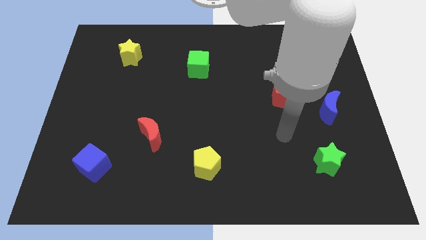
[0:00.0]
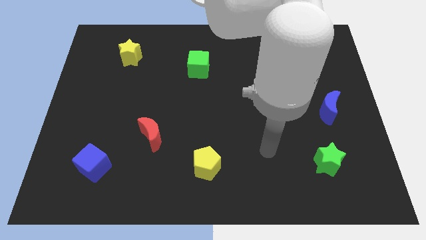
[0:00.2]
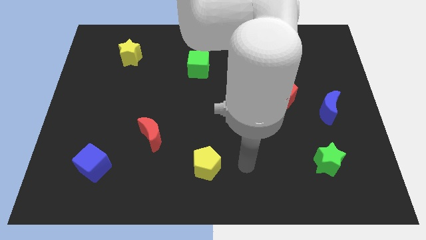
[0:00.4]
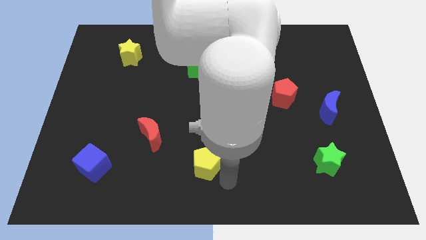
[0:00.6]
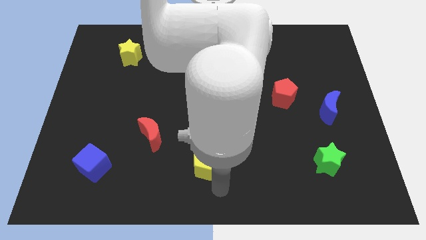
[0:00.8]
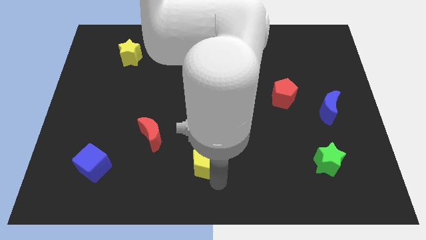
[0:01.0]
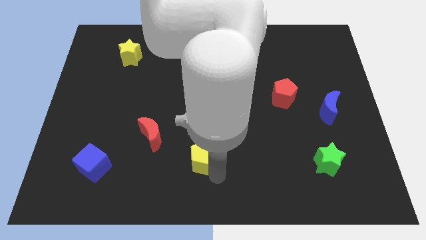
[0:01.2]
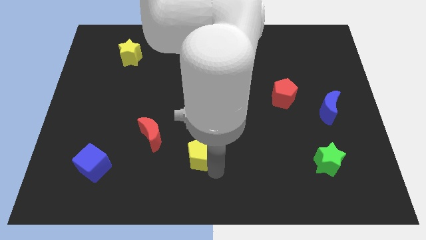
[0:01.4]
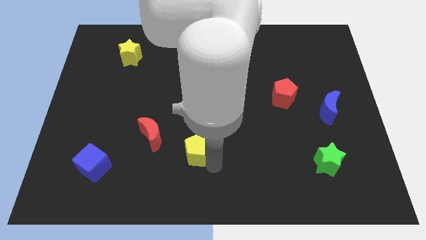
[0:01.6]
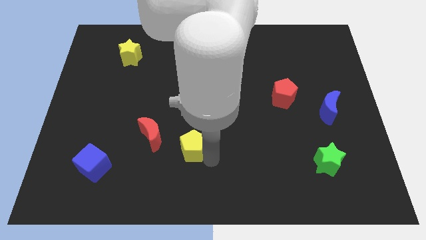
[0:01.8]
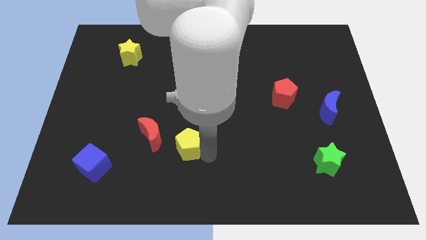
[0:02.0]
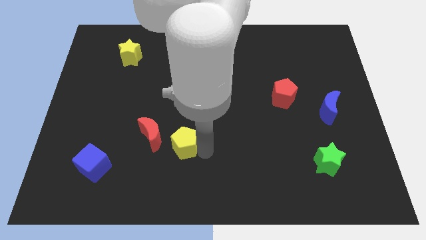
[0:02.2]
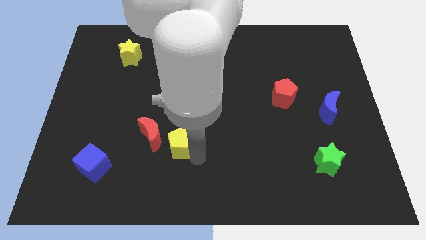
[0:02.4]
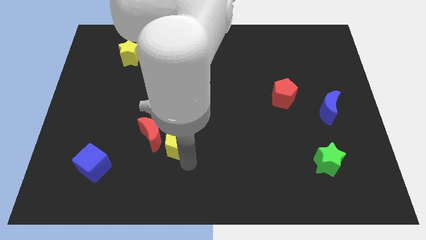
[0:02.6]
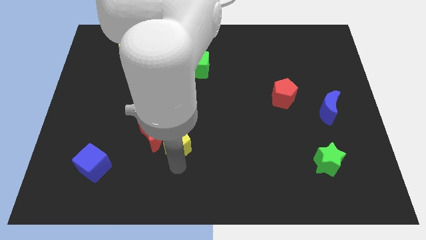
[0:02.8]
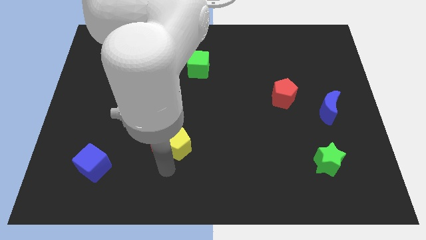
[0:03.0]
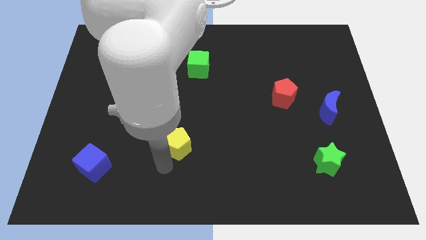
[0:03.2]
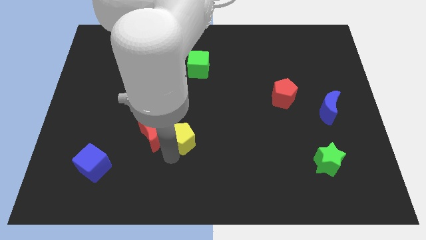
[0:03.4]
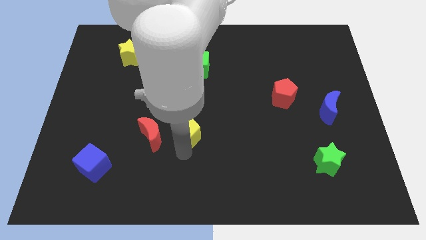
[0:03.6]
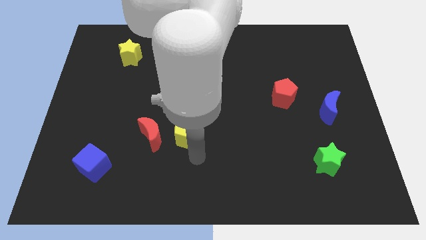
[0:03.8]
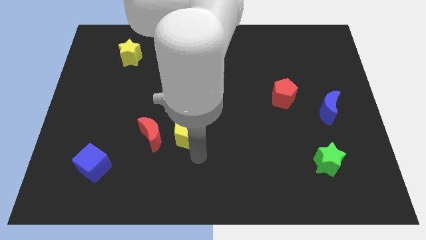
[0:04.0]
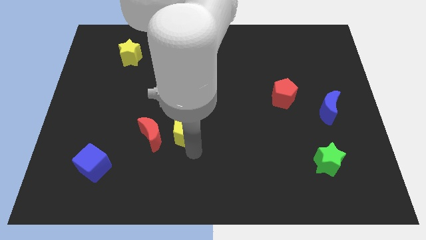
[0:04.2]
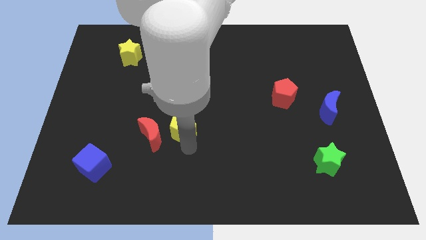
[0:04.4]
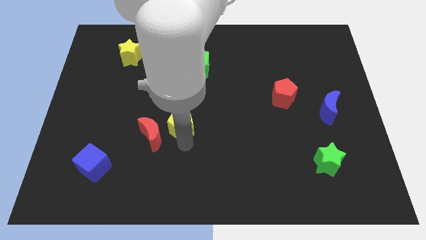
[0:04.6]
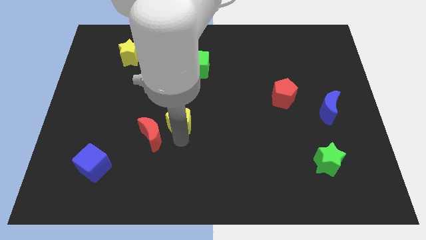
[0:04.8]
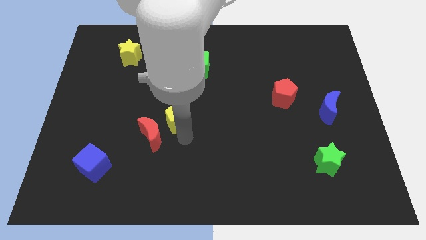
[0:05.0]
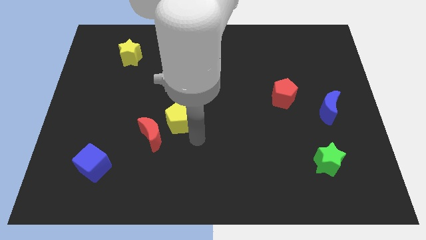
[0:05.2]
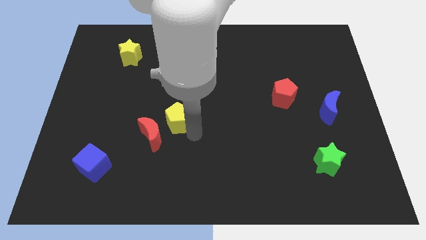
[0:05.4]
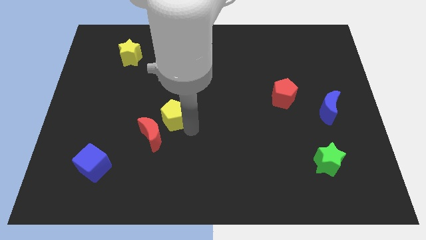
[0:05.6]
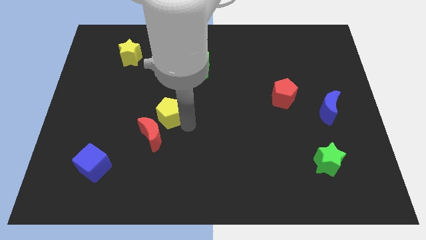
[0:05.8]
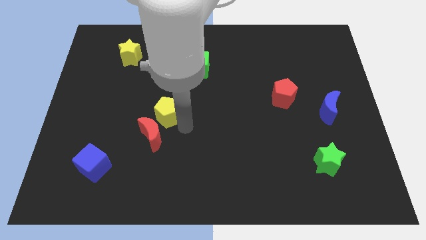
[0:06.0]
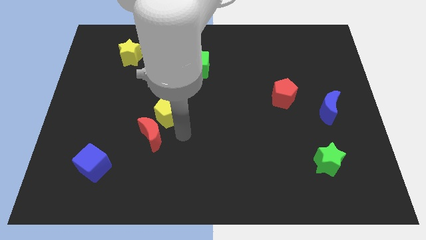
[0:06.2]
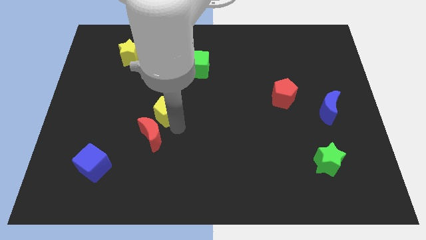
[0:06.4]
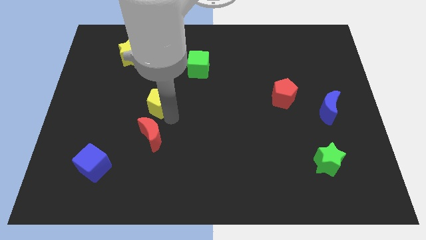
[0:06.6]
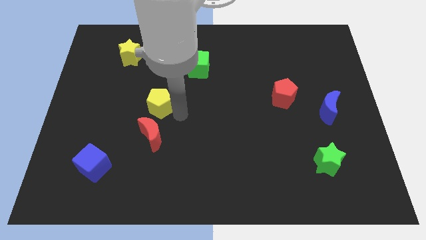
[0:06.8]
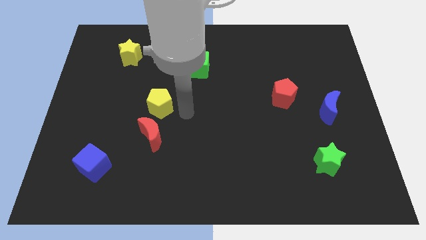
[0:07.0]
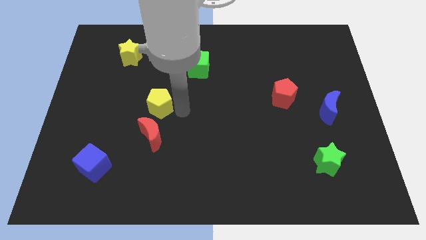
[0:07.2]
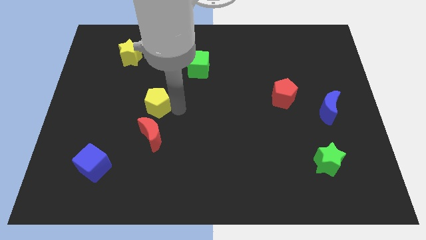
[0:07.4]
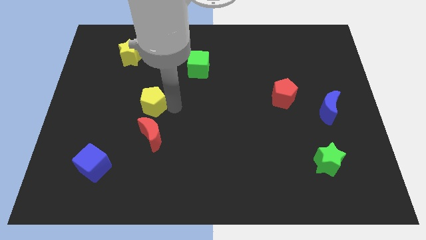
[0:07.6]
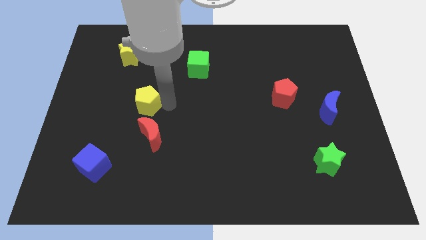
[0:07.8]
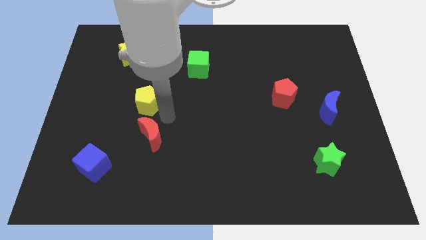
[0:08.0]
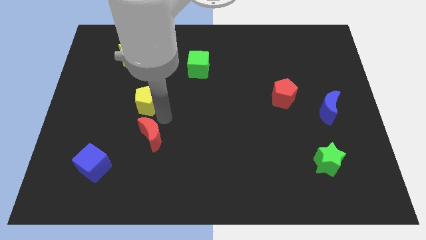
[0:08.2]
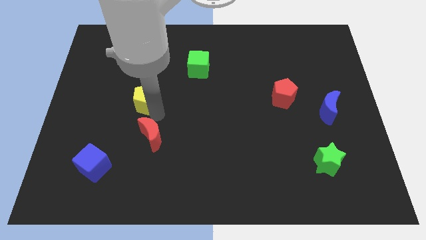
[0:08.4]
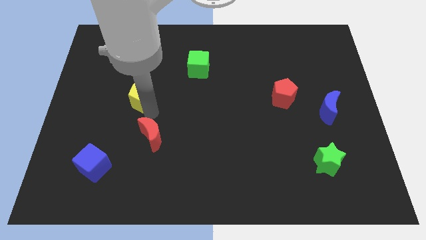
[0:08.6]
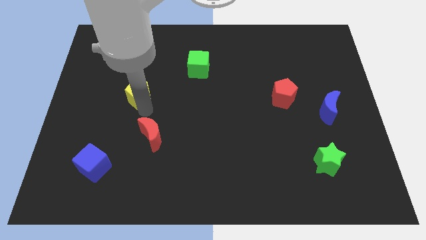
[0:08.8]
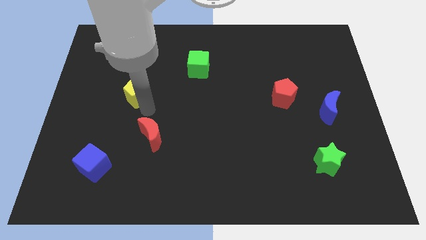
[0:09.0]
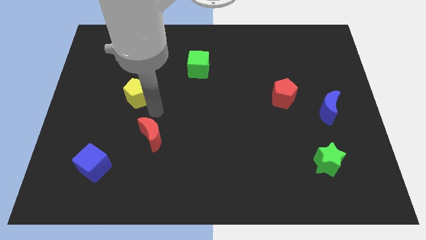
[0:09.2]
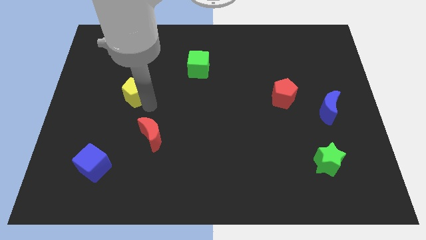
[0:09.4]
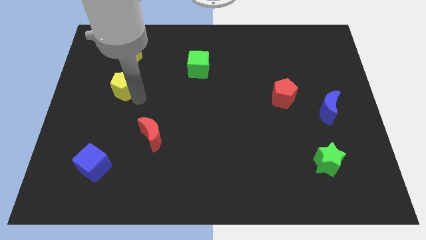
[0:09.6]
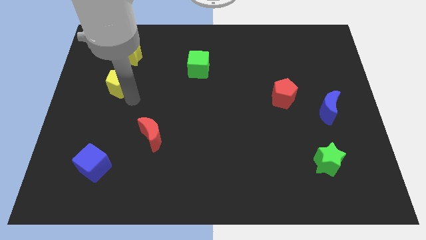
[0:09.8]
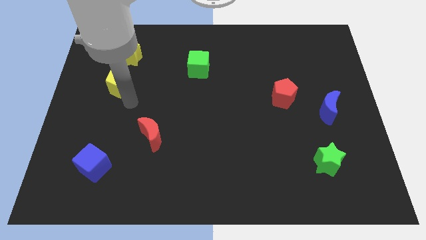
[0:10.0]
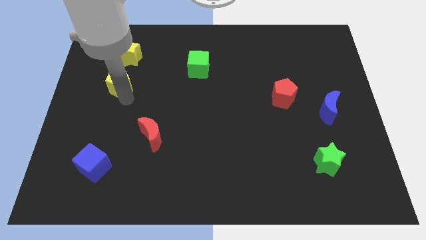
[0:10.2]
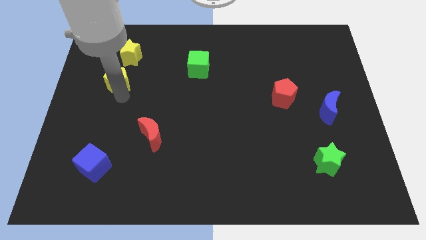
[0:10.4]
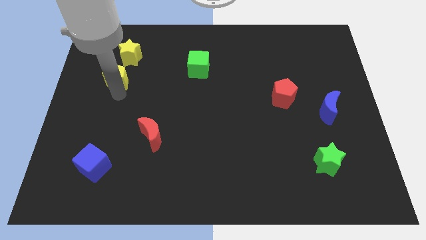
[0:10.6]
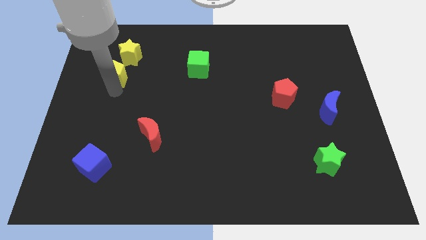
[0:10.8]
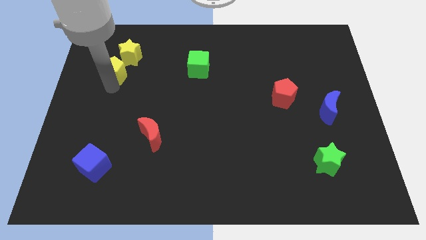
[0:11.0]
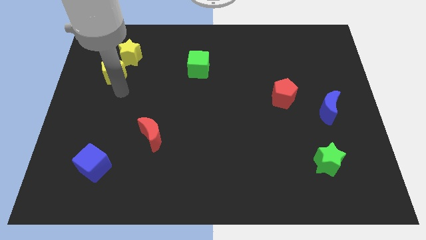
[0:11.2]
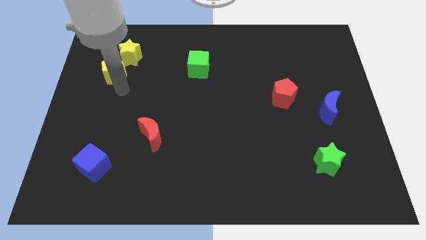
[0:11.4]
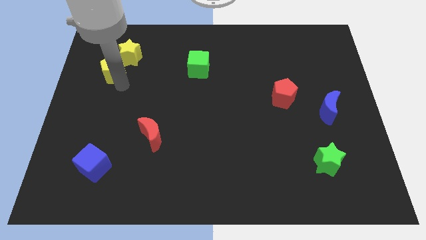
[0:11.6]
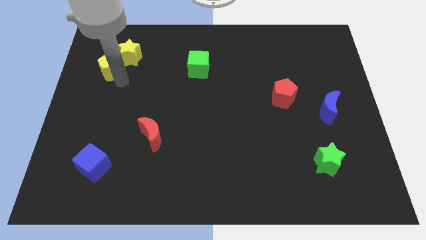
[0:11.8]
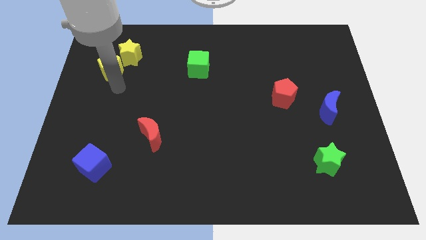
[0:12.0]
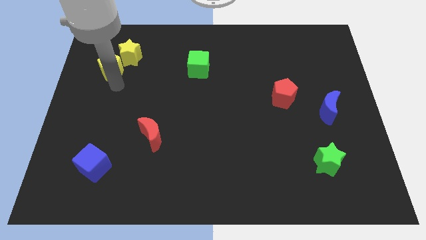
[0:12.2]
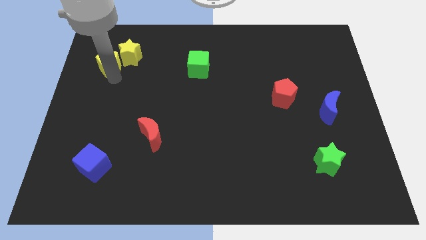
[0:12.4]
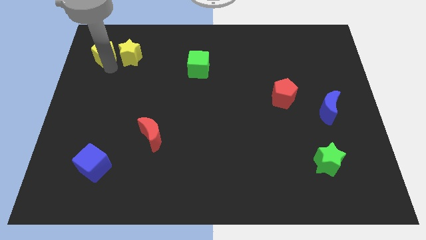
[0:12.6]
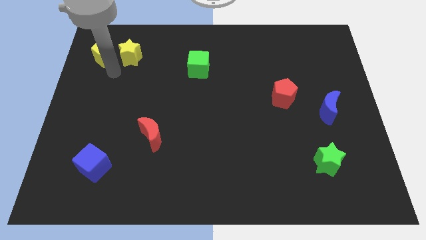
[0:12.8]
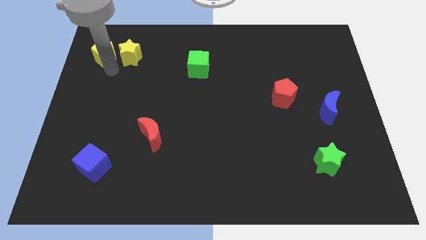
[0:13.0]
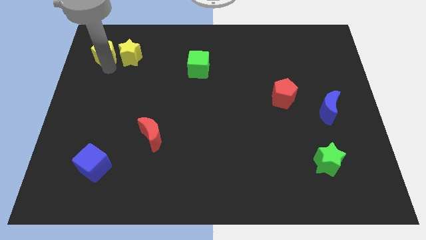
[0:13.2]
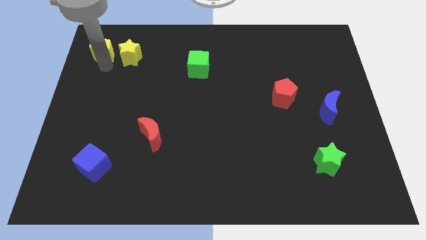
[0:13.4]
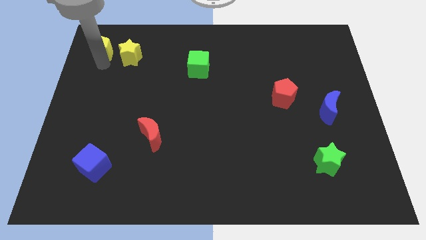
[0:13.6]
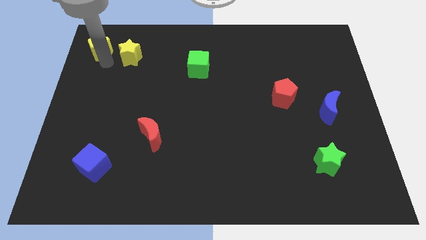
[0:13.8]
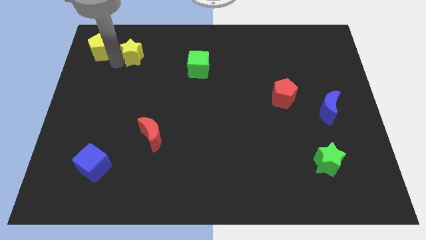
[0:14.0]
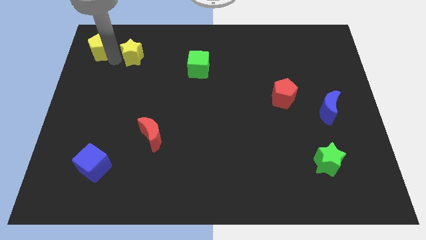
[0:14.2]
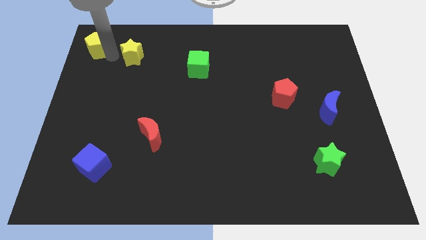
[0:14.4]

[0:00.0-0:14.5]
put the yellow pentagon to the top left of the board
